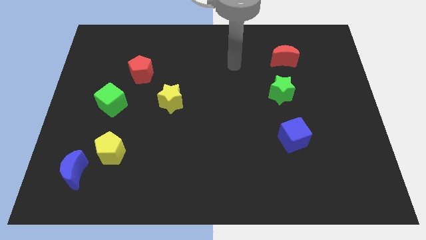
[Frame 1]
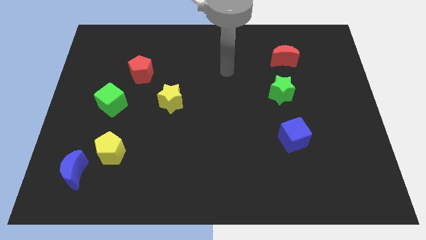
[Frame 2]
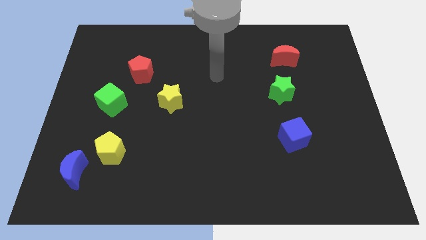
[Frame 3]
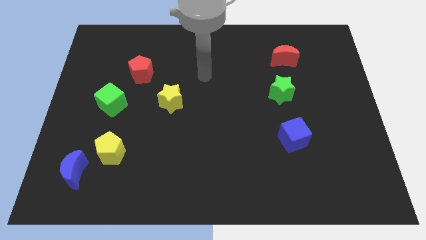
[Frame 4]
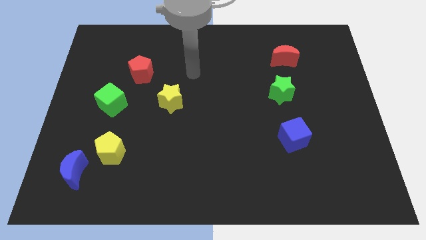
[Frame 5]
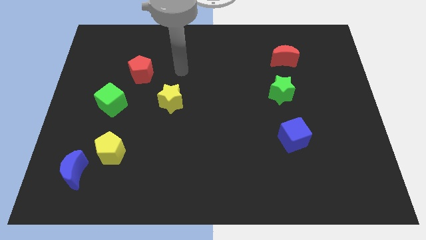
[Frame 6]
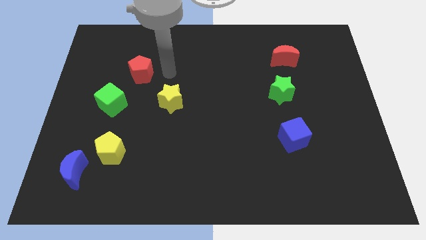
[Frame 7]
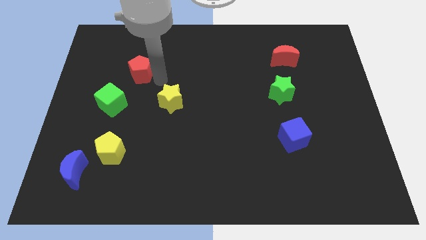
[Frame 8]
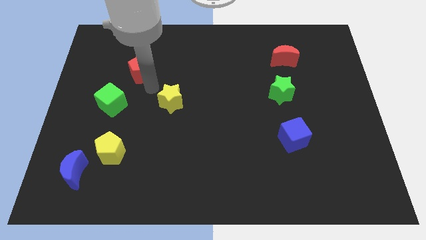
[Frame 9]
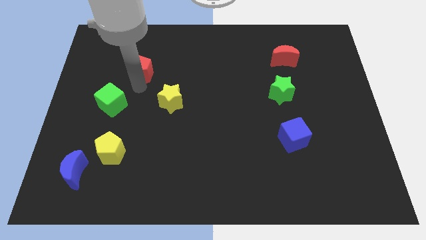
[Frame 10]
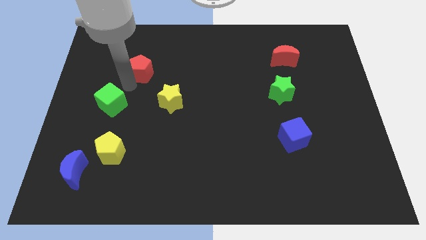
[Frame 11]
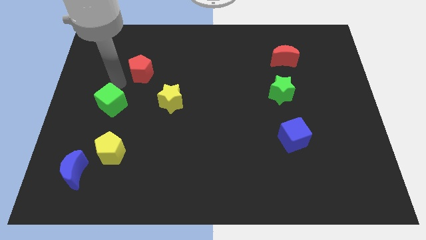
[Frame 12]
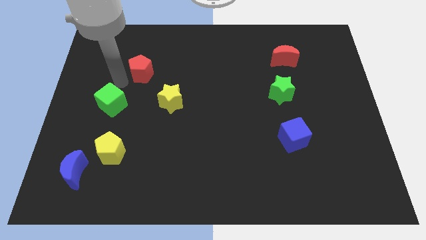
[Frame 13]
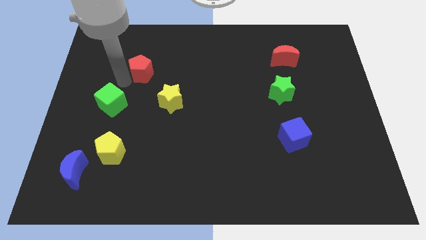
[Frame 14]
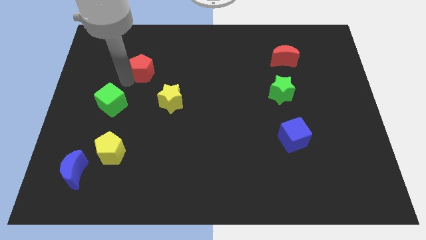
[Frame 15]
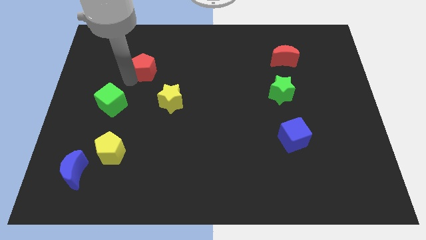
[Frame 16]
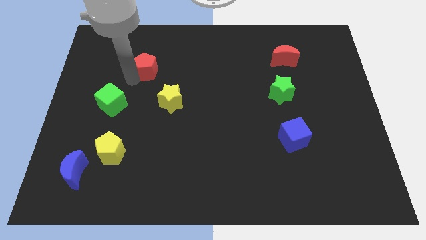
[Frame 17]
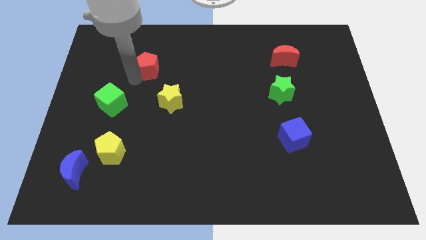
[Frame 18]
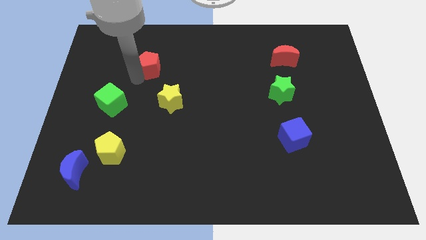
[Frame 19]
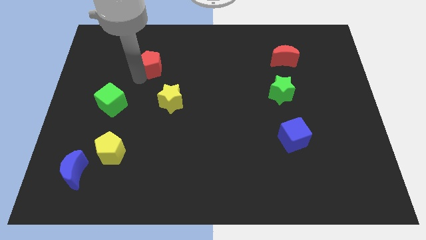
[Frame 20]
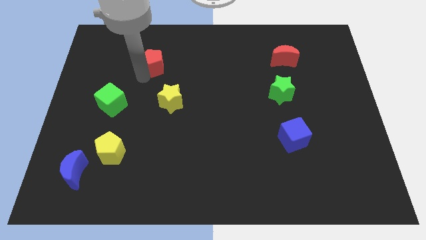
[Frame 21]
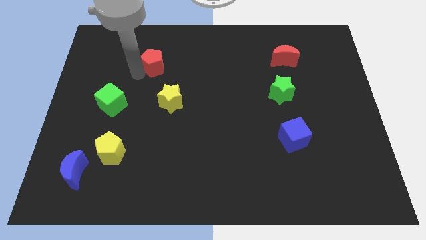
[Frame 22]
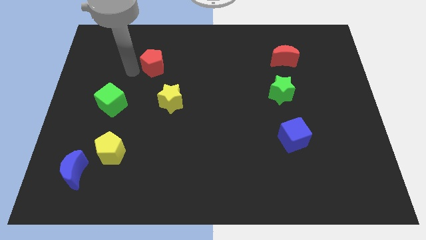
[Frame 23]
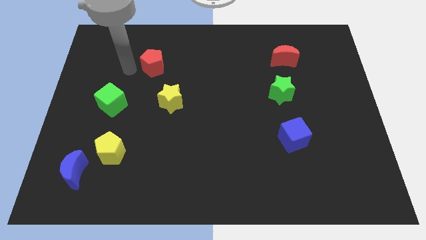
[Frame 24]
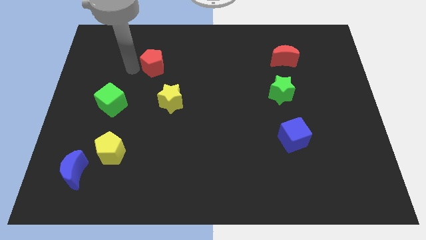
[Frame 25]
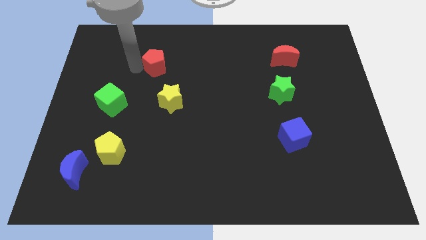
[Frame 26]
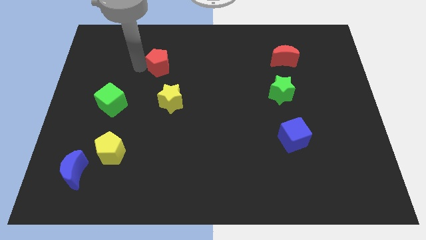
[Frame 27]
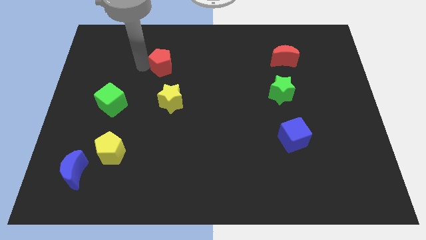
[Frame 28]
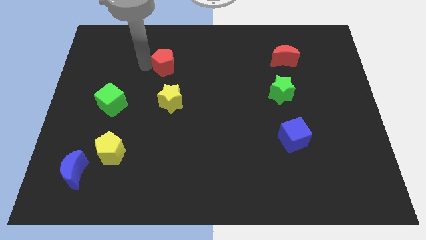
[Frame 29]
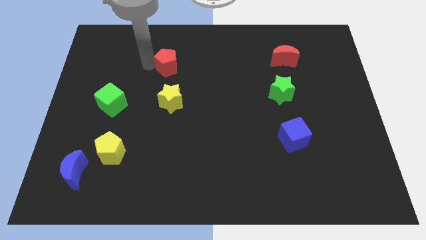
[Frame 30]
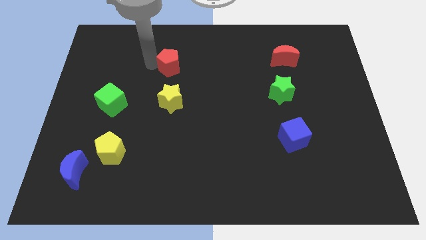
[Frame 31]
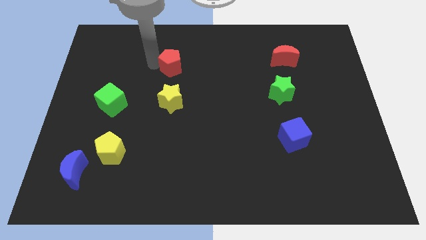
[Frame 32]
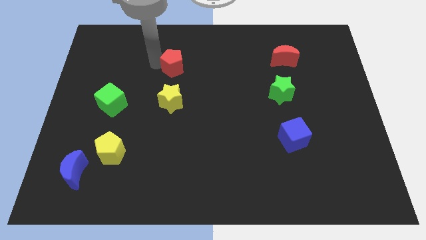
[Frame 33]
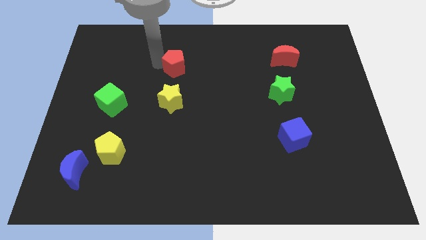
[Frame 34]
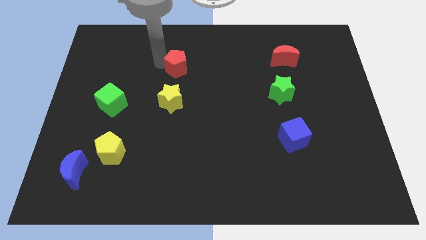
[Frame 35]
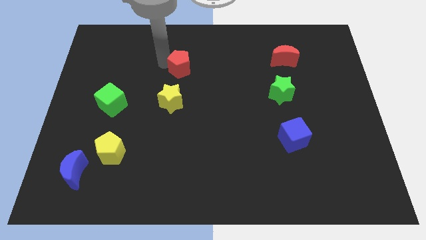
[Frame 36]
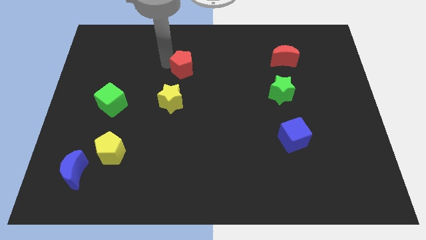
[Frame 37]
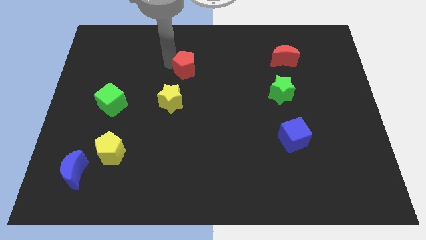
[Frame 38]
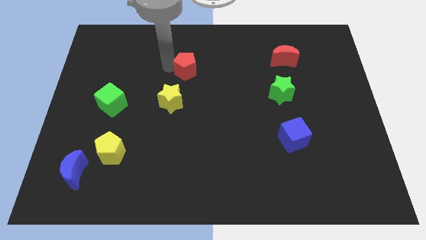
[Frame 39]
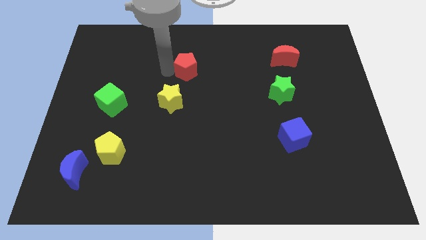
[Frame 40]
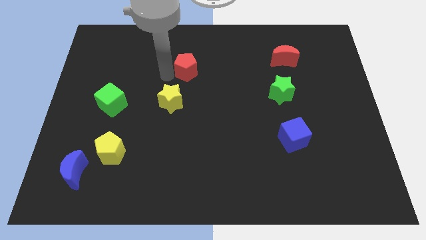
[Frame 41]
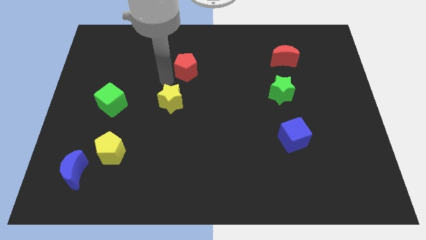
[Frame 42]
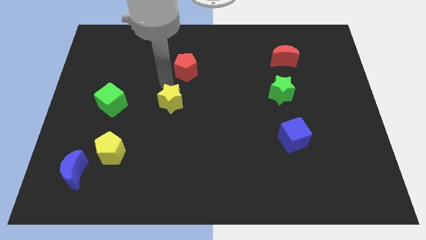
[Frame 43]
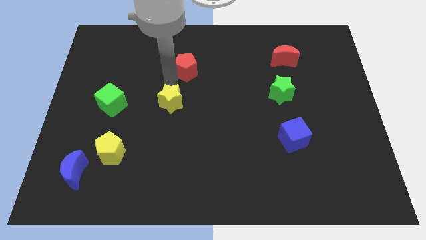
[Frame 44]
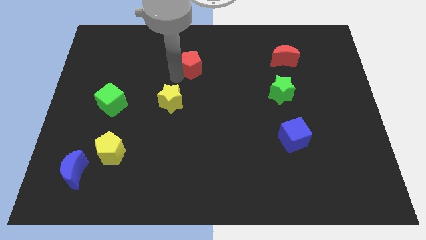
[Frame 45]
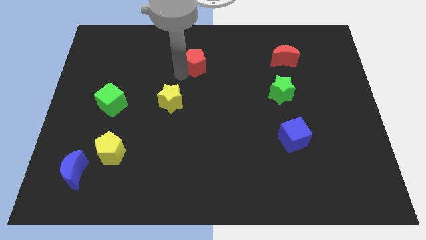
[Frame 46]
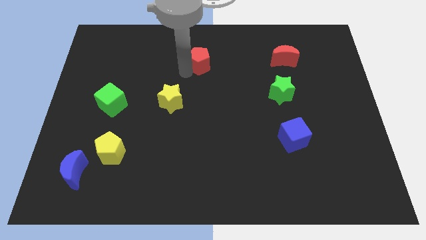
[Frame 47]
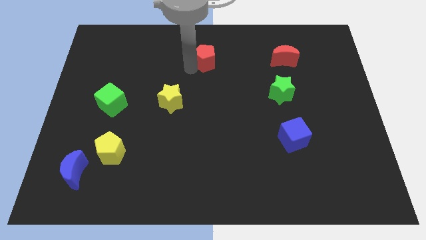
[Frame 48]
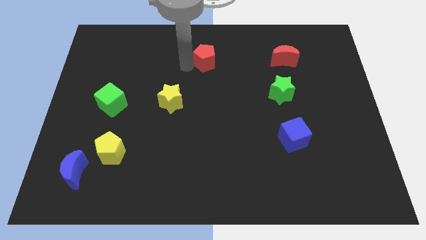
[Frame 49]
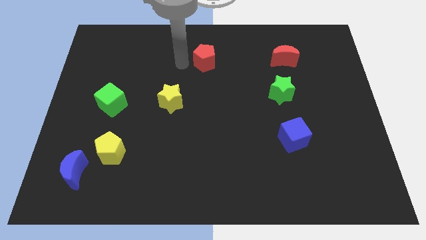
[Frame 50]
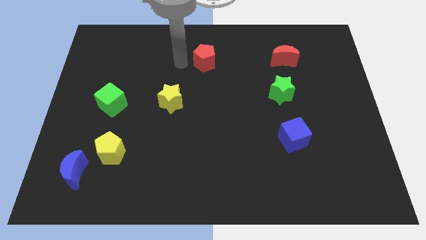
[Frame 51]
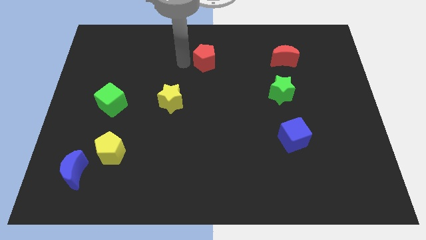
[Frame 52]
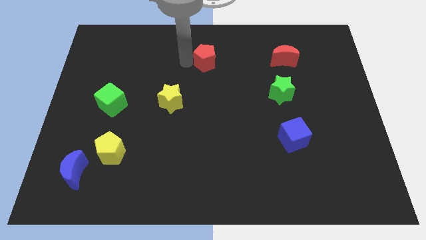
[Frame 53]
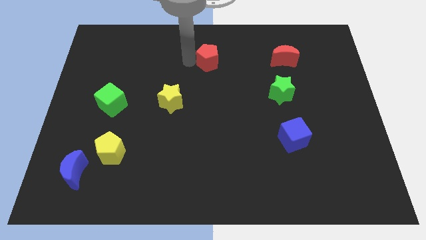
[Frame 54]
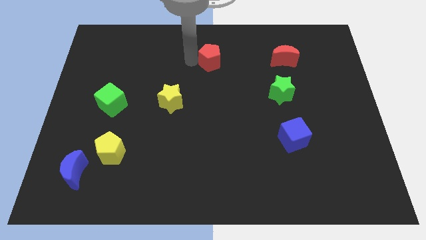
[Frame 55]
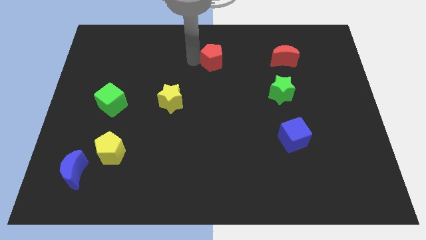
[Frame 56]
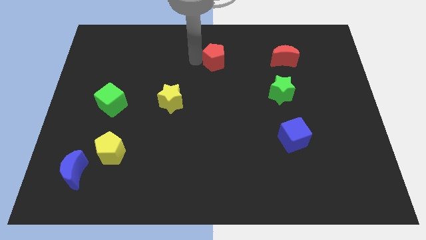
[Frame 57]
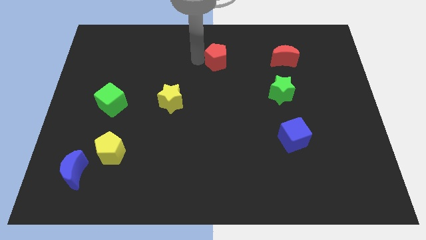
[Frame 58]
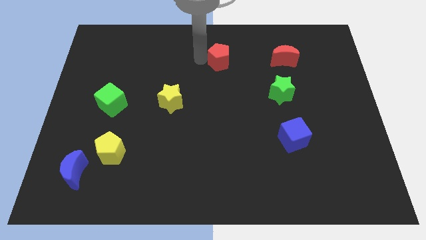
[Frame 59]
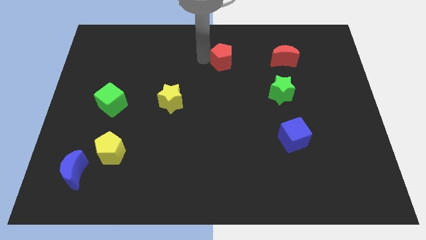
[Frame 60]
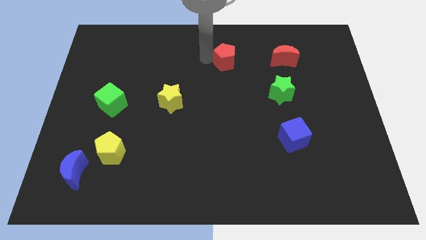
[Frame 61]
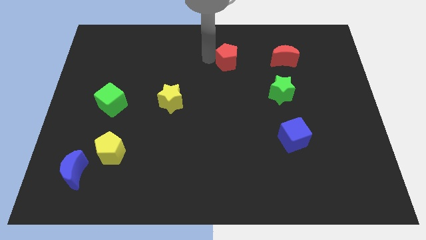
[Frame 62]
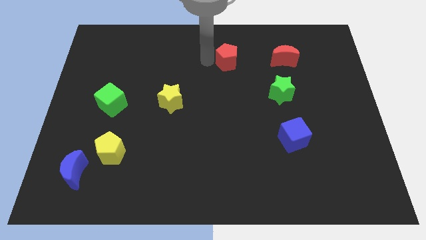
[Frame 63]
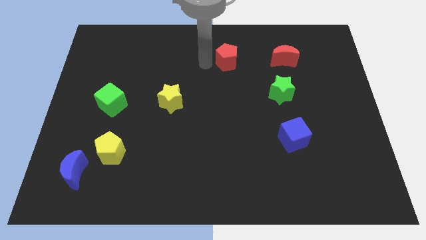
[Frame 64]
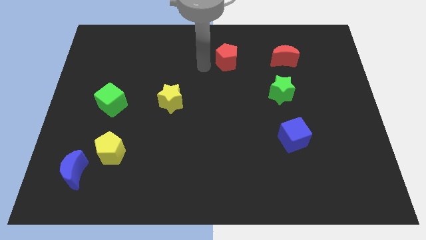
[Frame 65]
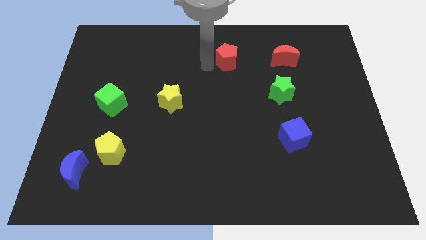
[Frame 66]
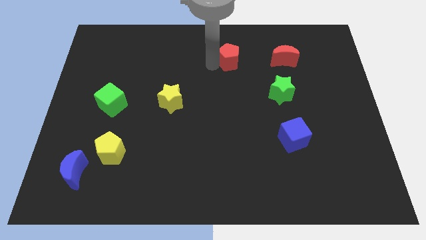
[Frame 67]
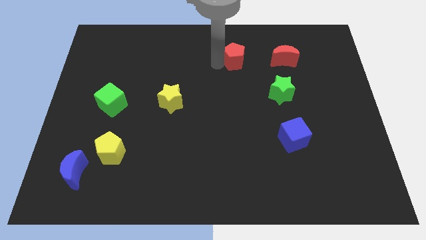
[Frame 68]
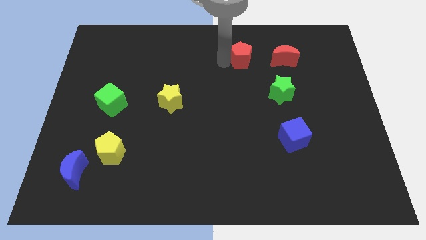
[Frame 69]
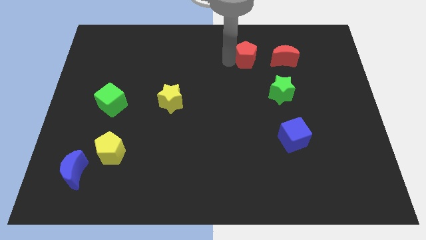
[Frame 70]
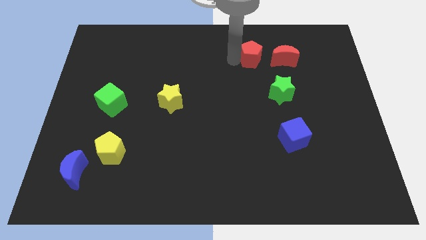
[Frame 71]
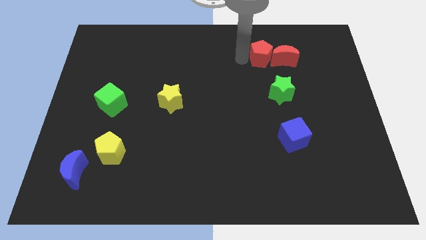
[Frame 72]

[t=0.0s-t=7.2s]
move the red pentagon close to the red moon

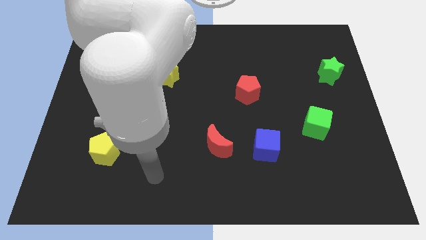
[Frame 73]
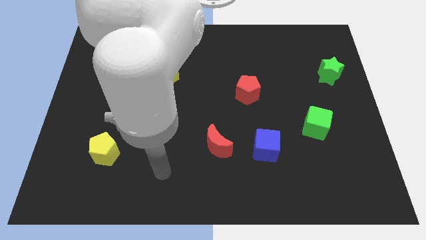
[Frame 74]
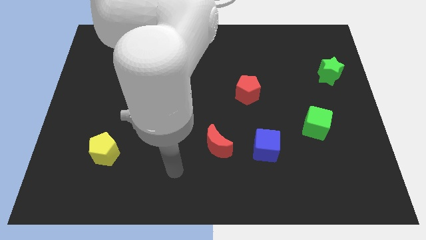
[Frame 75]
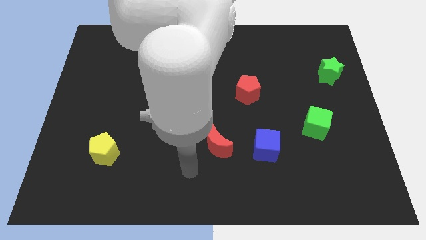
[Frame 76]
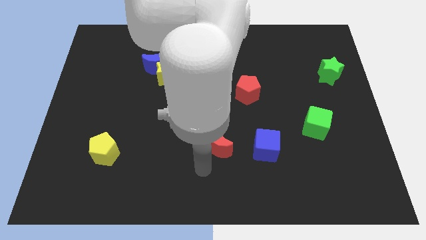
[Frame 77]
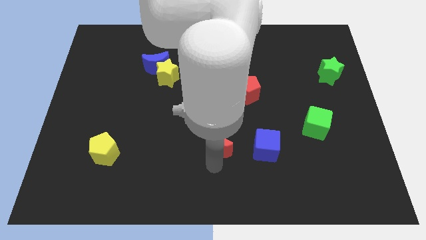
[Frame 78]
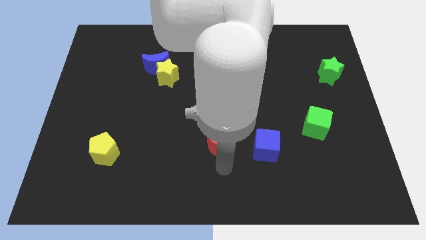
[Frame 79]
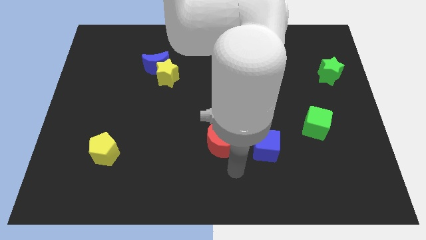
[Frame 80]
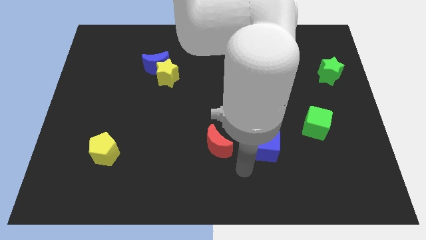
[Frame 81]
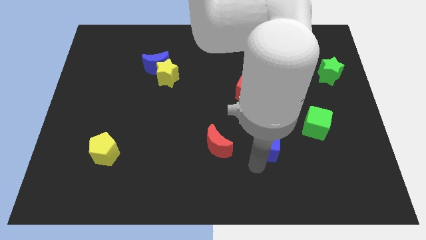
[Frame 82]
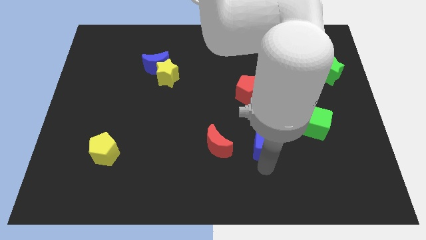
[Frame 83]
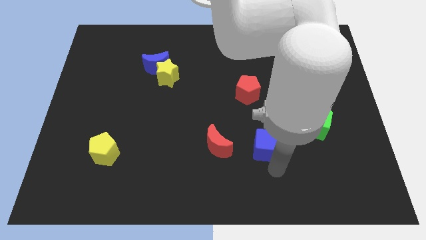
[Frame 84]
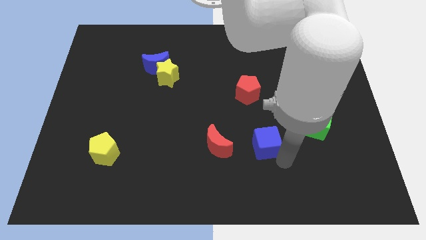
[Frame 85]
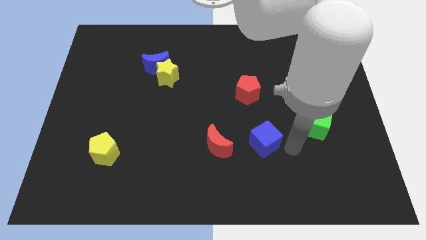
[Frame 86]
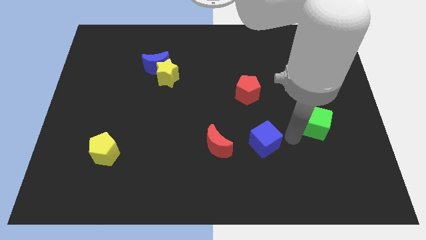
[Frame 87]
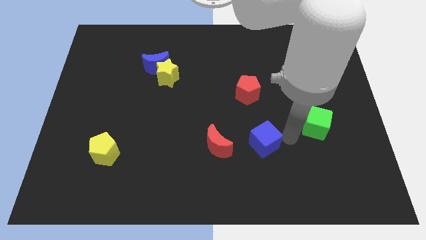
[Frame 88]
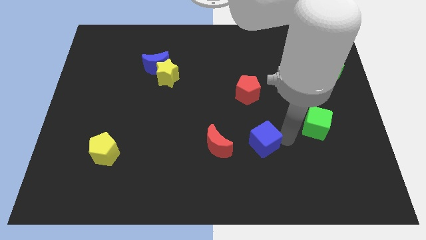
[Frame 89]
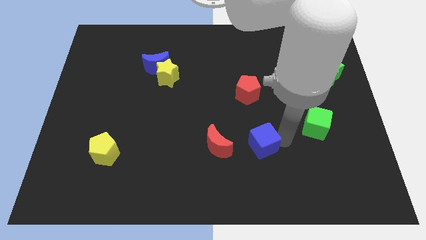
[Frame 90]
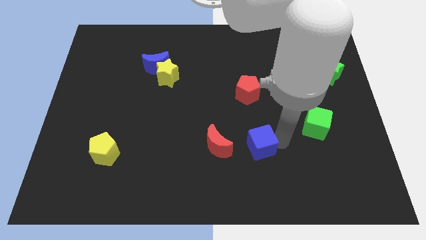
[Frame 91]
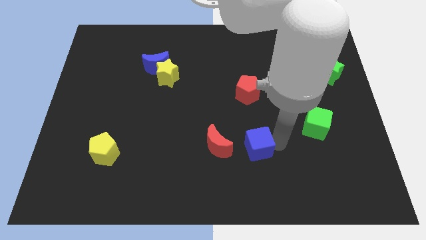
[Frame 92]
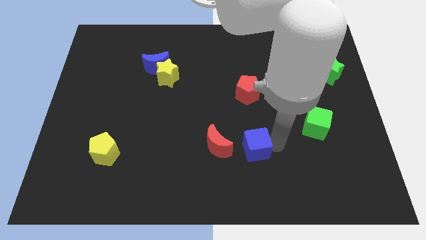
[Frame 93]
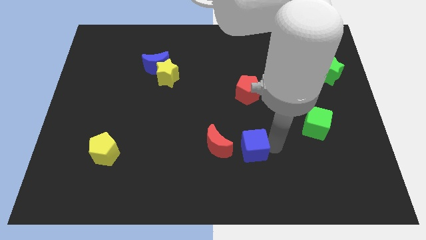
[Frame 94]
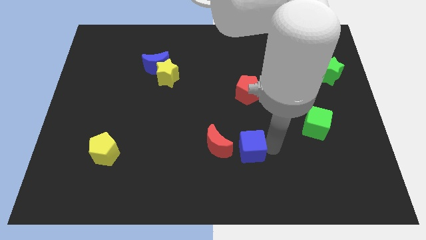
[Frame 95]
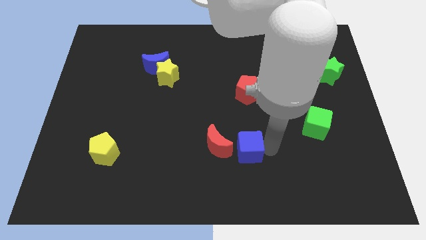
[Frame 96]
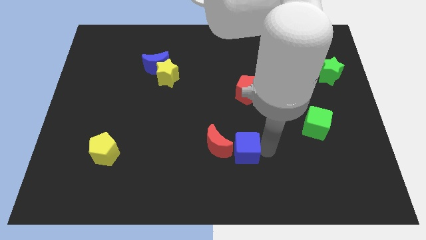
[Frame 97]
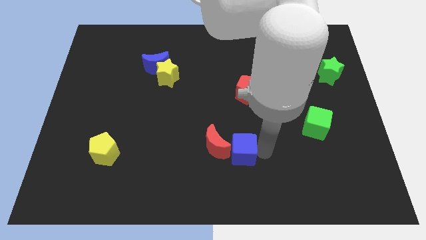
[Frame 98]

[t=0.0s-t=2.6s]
slide the blue cube next to the red moon
